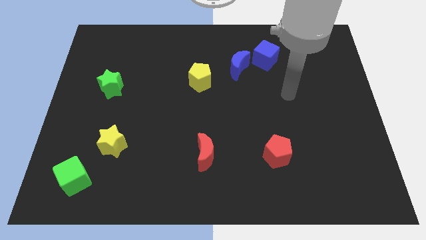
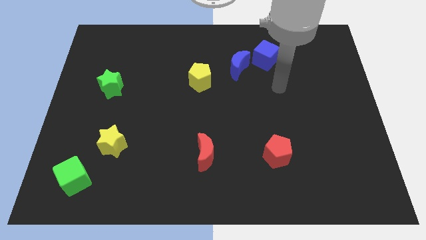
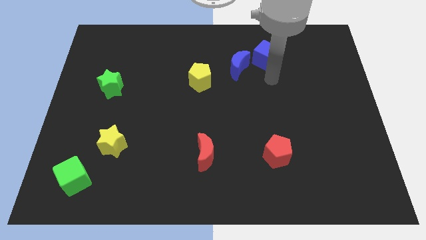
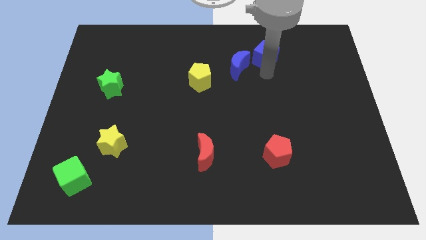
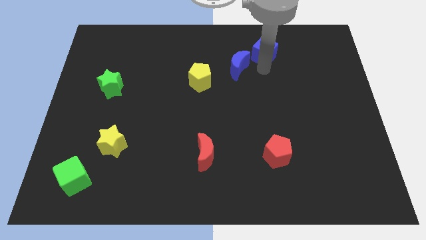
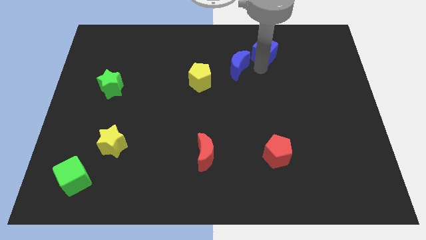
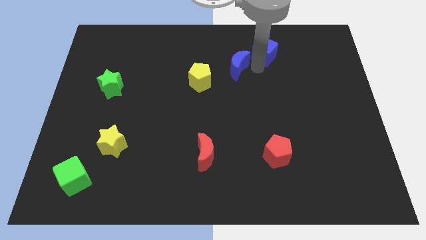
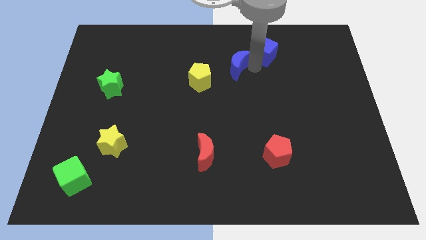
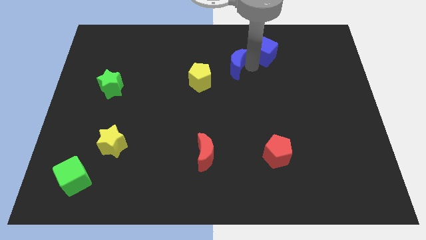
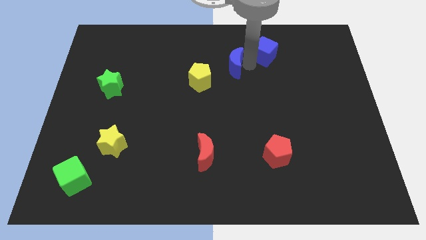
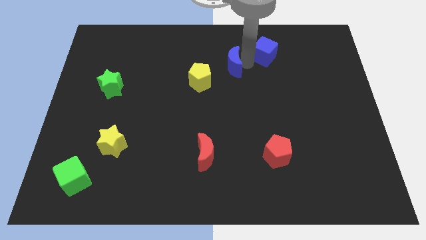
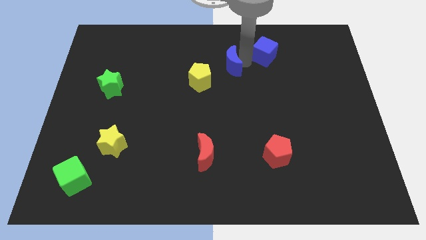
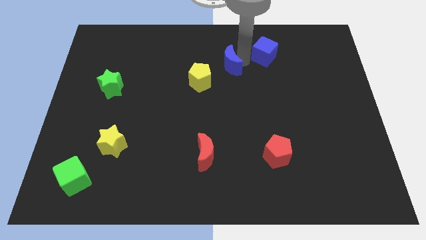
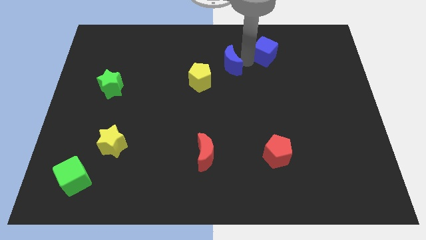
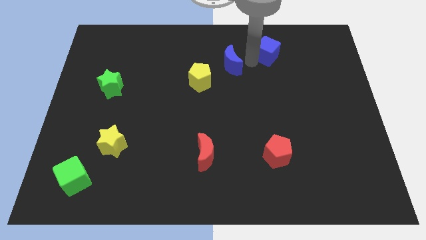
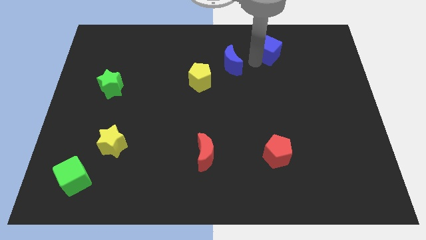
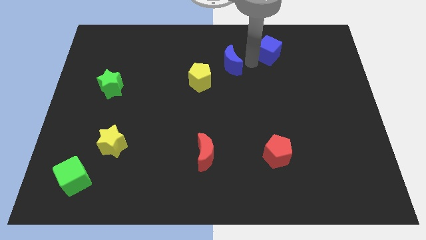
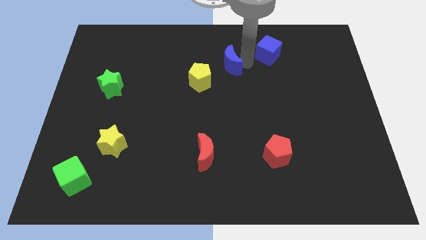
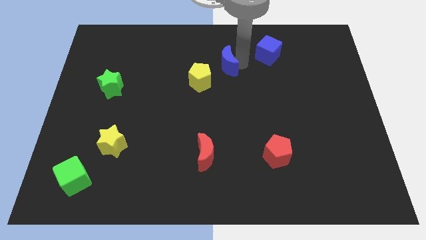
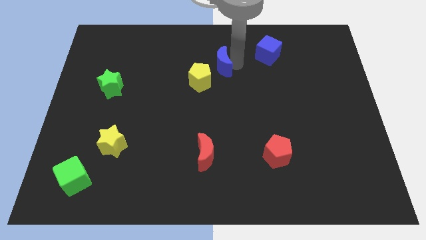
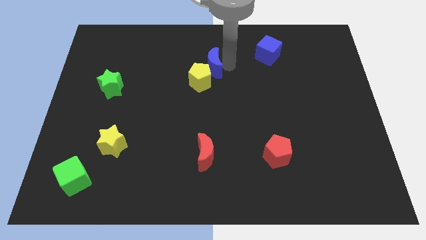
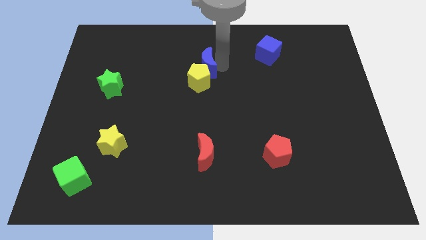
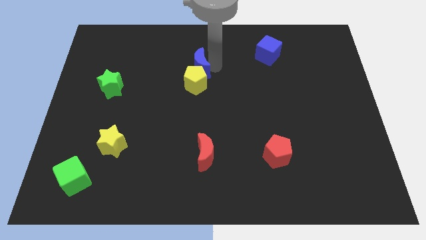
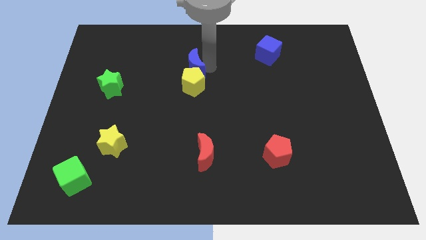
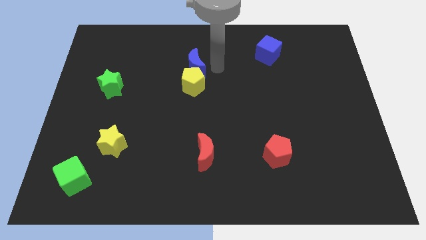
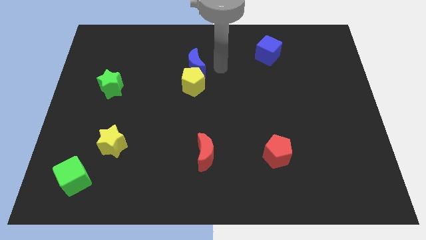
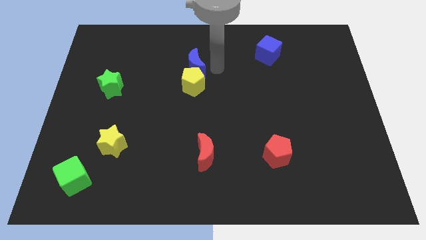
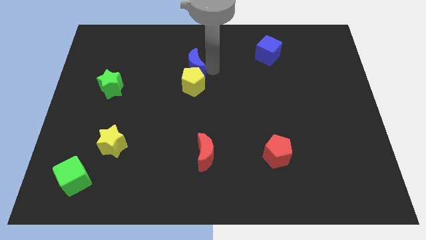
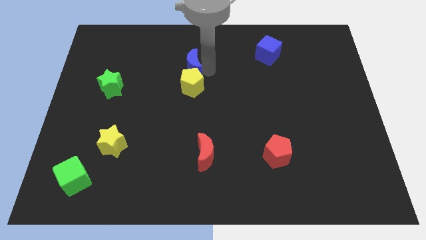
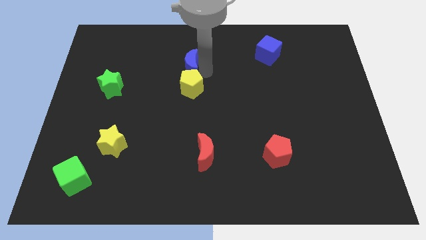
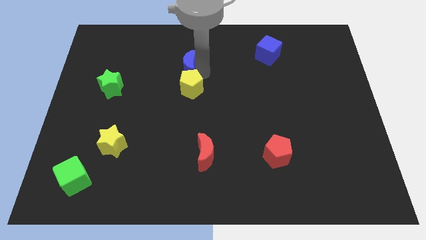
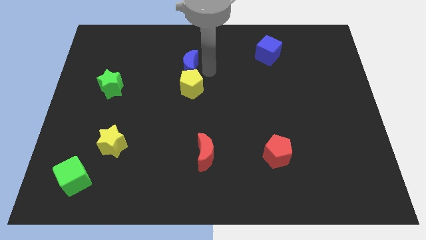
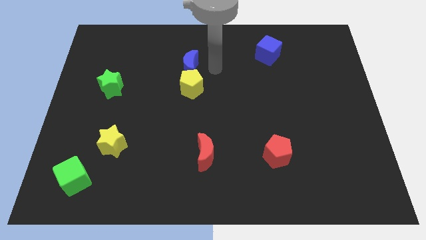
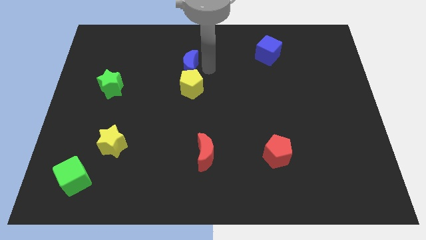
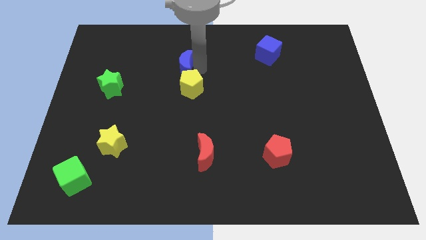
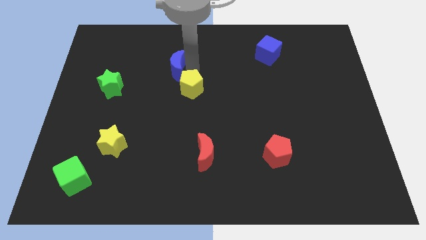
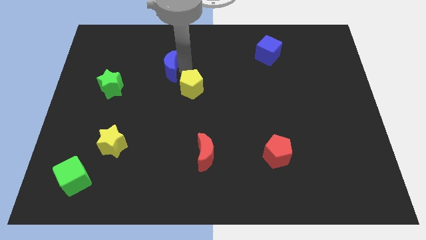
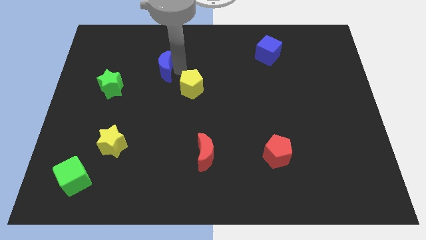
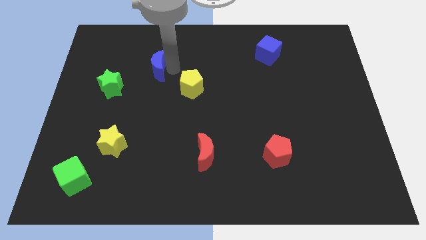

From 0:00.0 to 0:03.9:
push the blue moon left

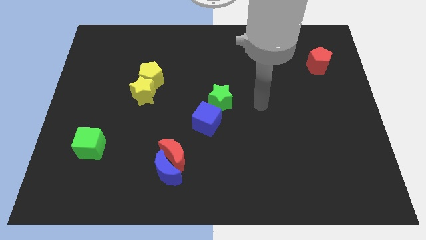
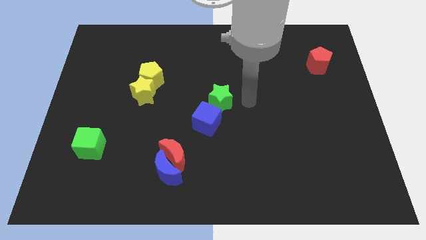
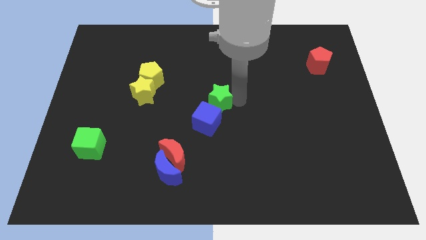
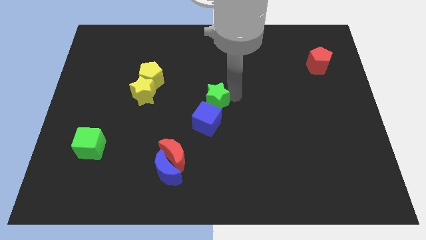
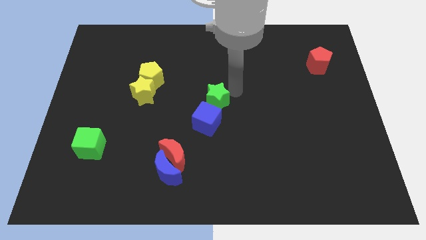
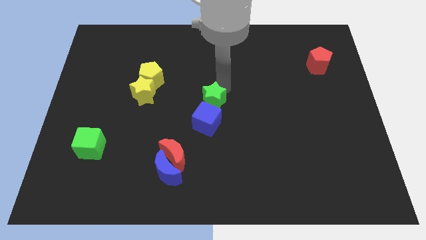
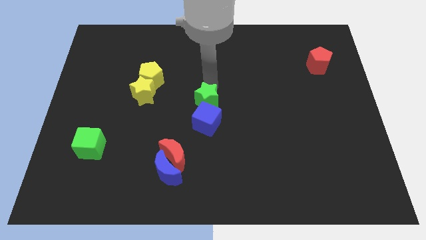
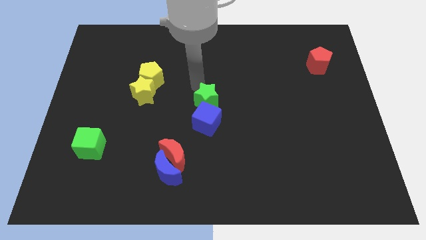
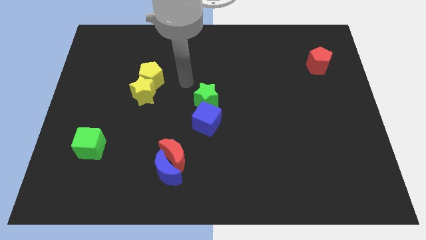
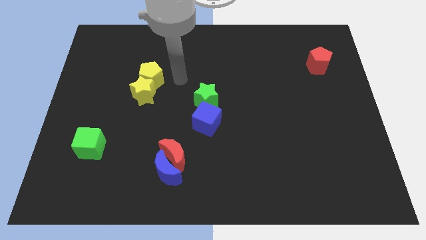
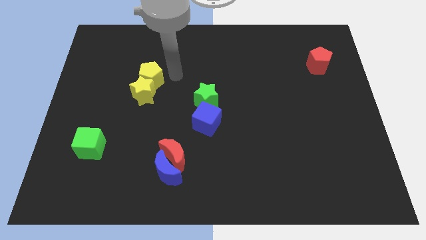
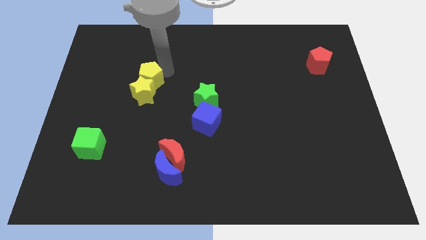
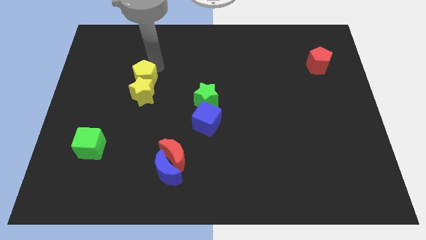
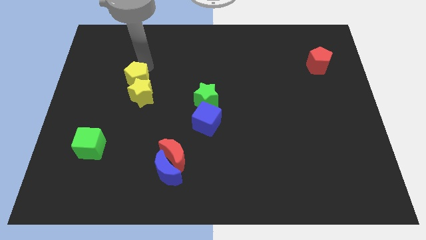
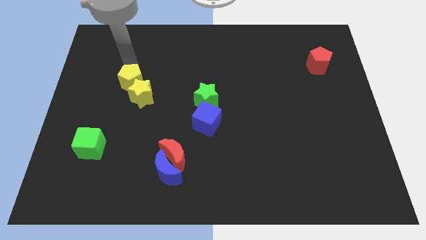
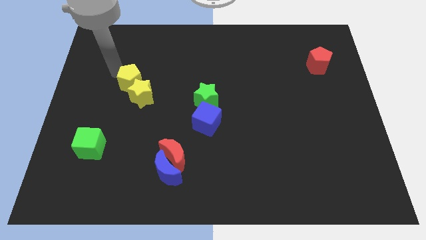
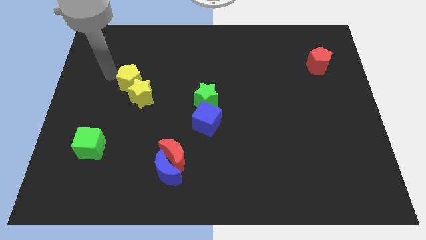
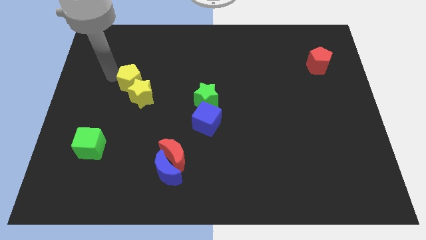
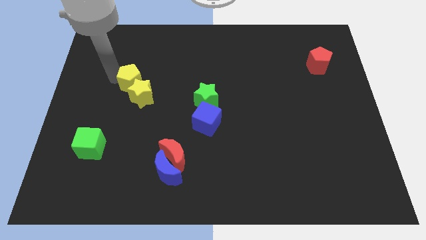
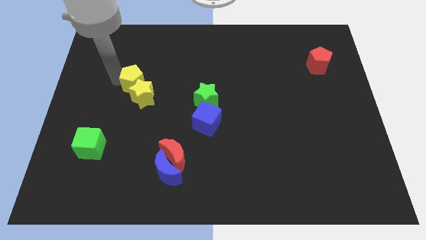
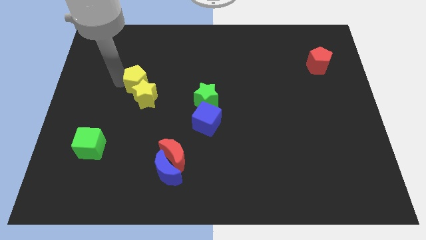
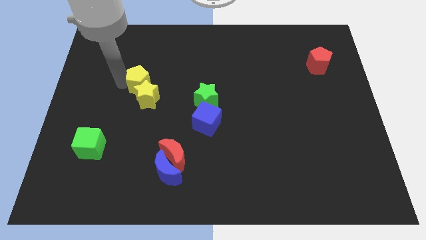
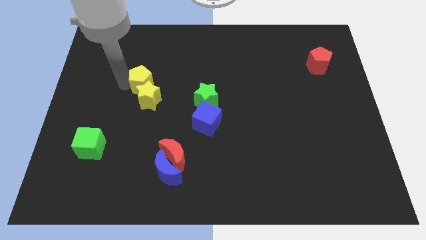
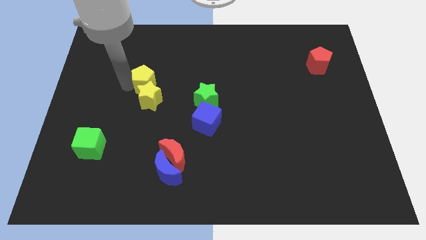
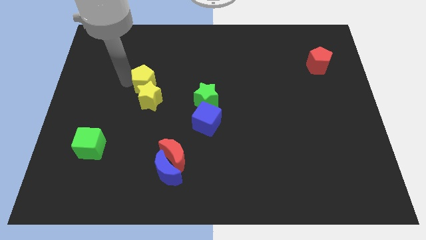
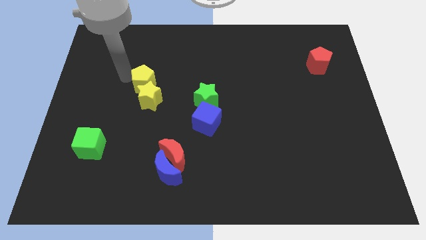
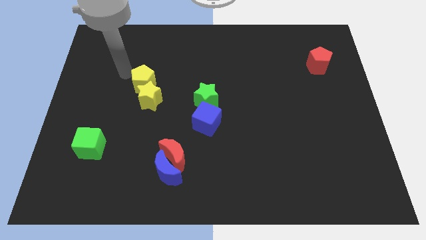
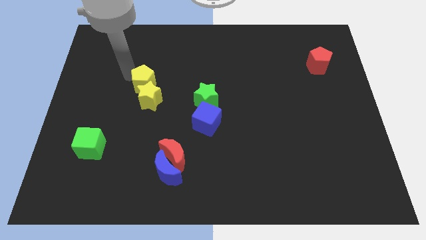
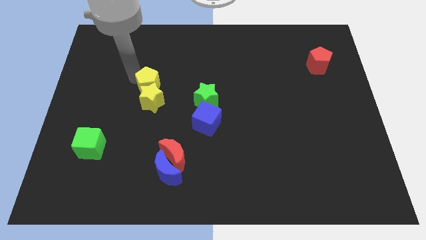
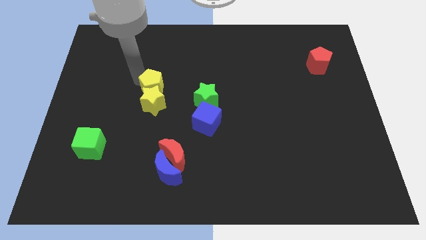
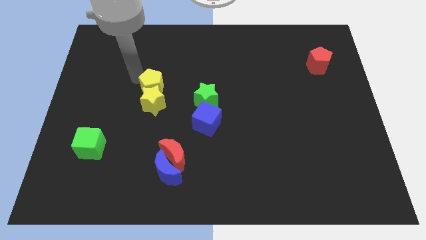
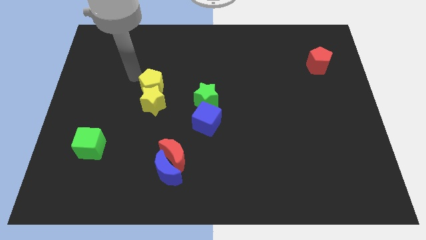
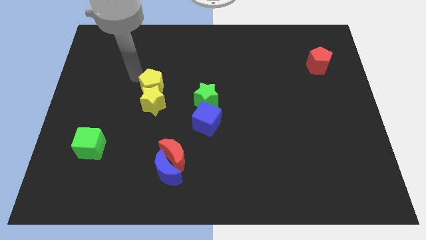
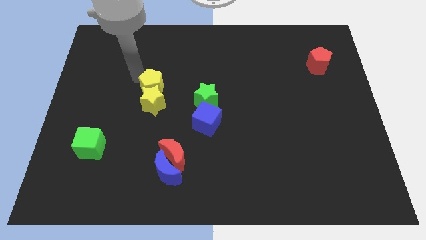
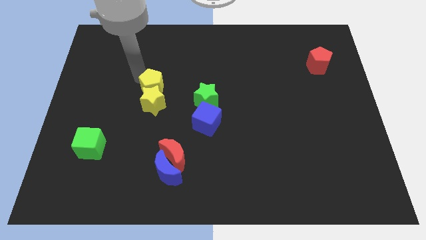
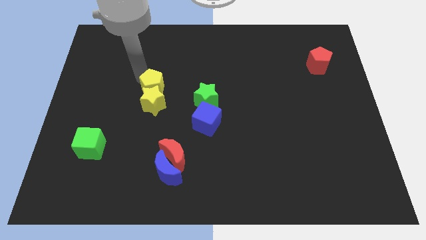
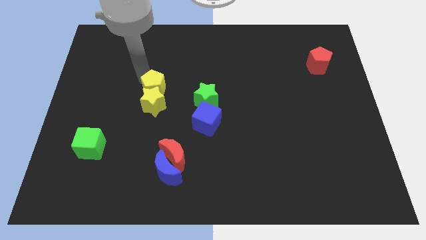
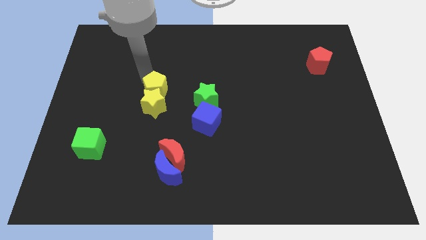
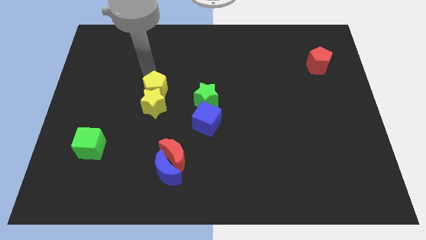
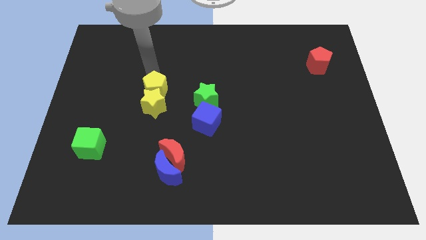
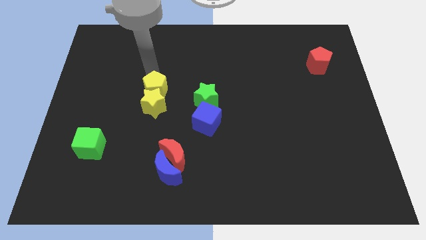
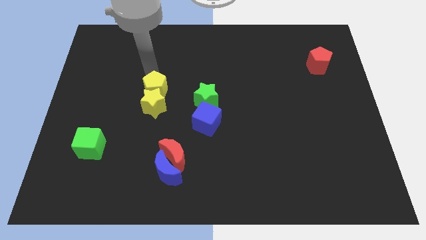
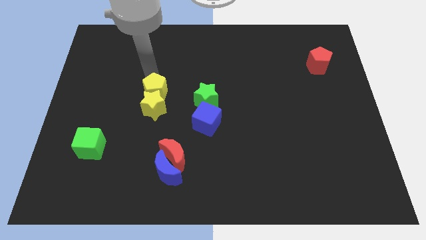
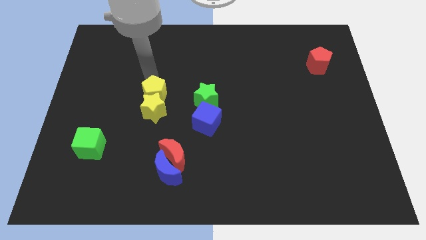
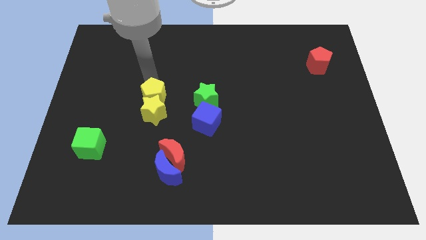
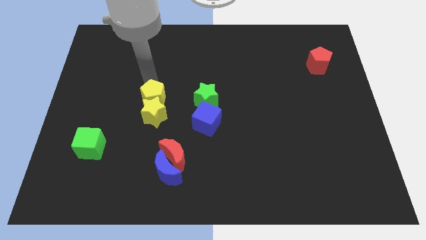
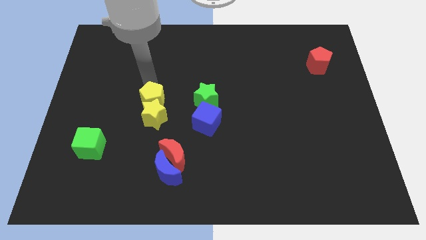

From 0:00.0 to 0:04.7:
slightly push the yellow pentagon down
